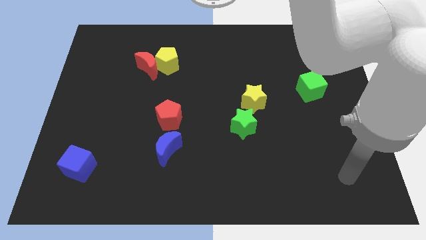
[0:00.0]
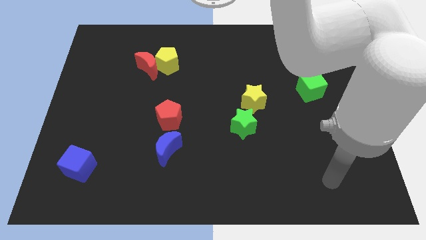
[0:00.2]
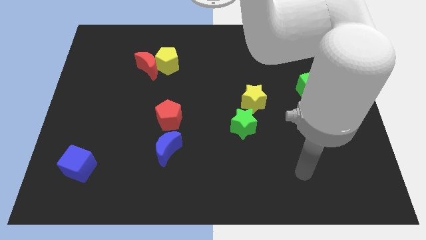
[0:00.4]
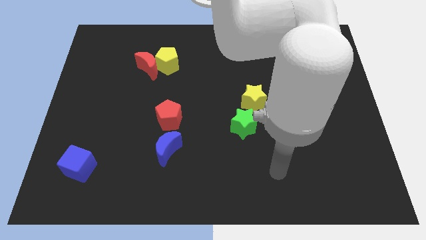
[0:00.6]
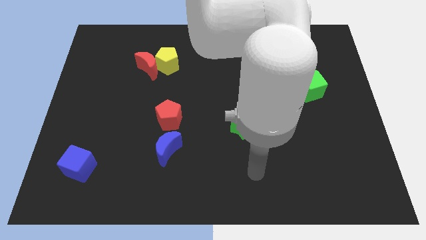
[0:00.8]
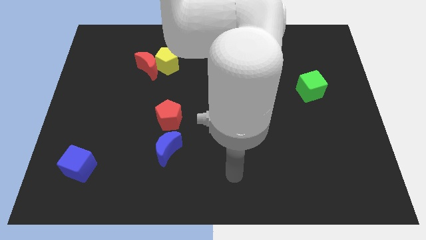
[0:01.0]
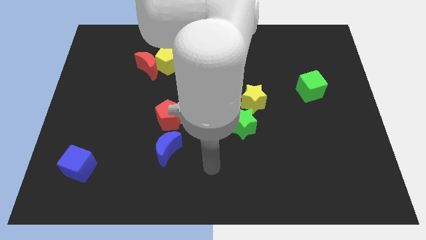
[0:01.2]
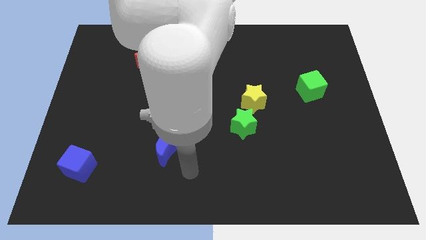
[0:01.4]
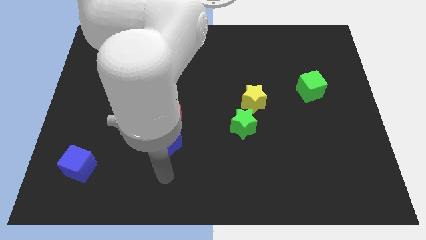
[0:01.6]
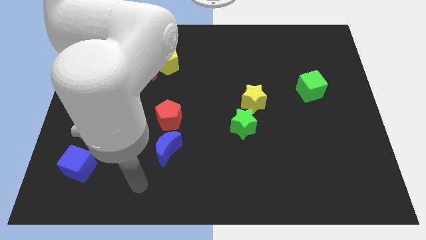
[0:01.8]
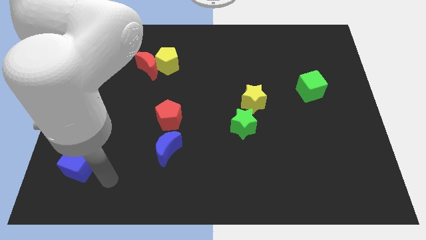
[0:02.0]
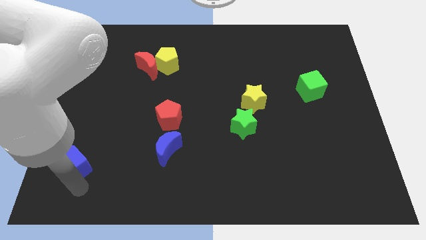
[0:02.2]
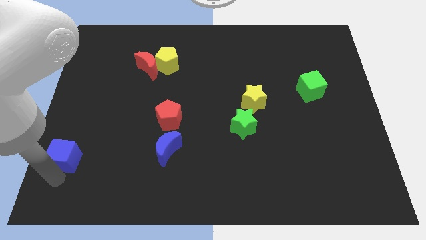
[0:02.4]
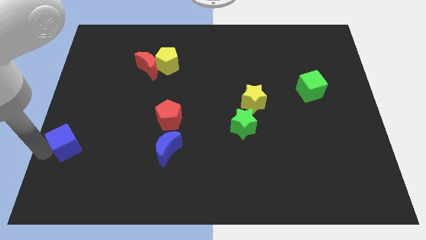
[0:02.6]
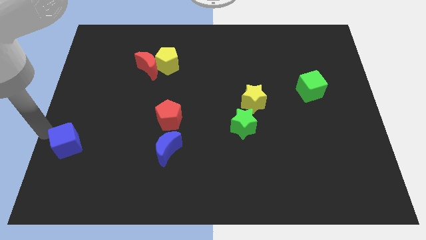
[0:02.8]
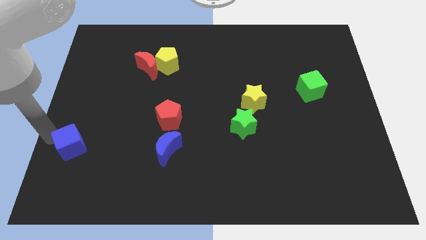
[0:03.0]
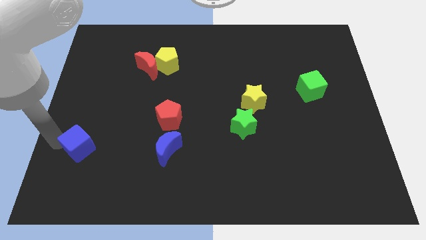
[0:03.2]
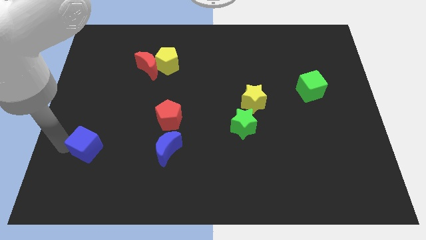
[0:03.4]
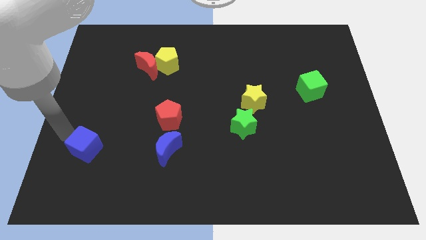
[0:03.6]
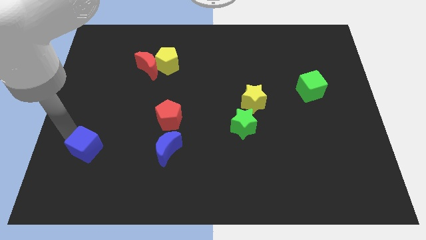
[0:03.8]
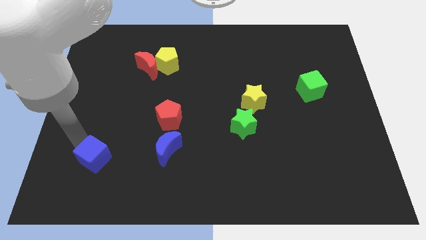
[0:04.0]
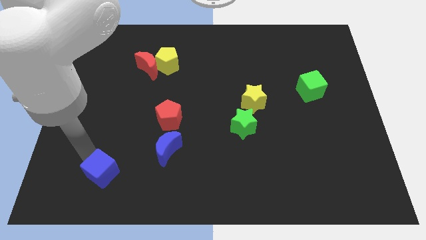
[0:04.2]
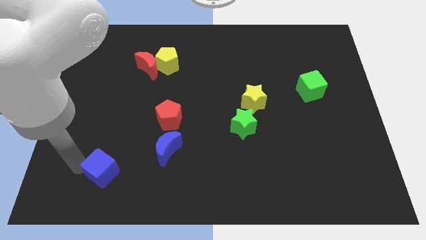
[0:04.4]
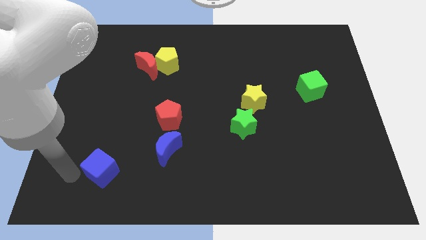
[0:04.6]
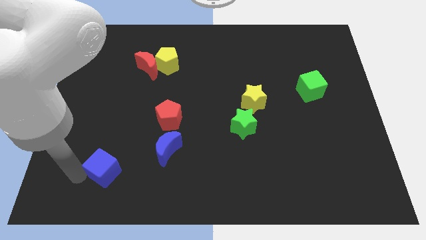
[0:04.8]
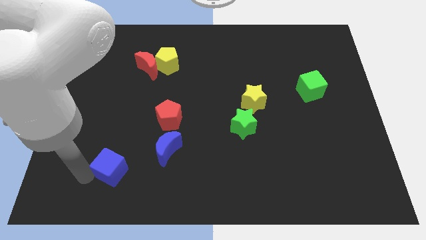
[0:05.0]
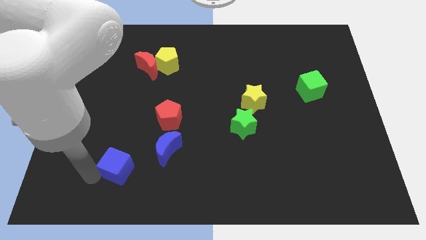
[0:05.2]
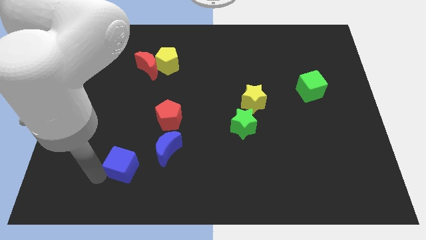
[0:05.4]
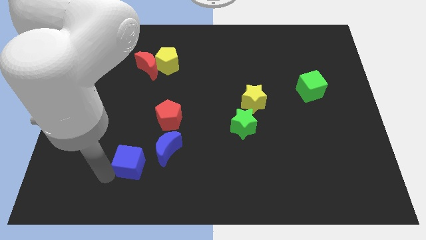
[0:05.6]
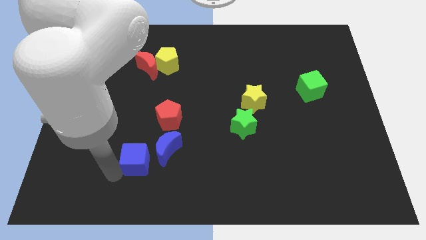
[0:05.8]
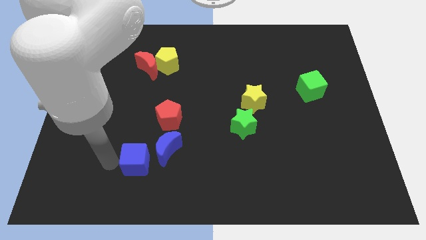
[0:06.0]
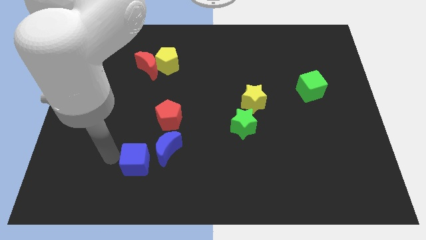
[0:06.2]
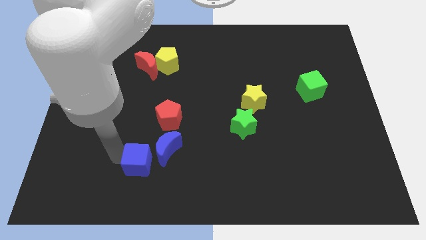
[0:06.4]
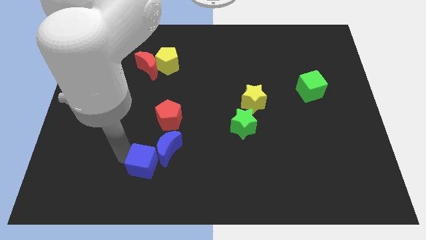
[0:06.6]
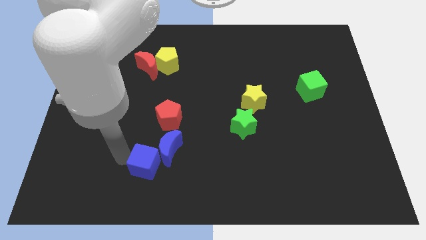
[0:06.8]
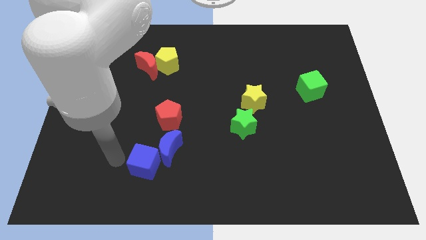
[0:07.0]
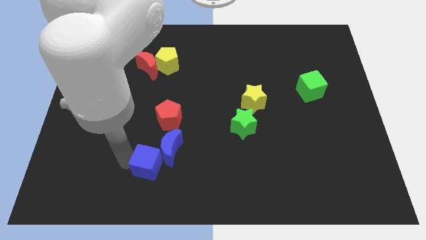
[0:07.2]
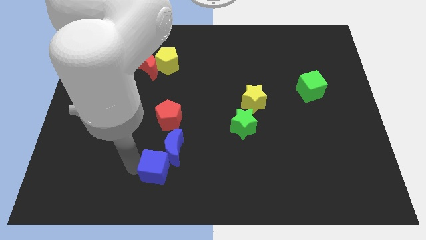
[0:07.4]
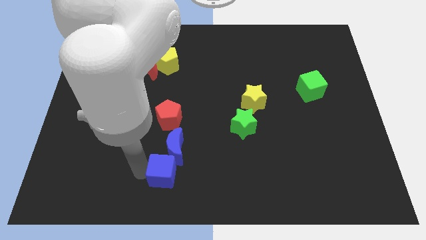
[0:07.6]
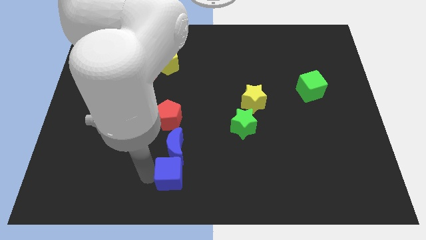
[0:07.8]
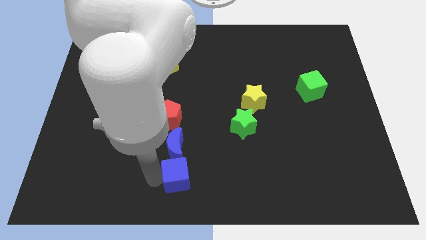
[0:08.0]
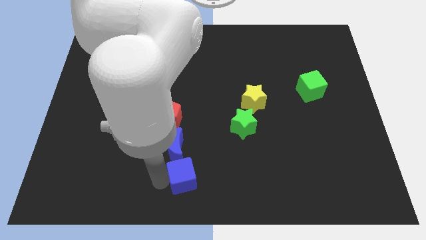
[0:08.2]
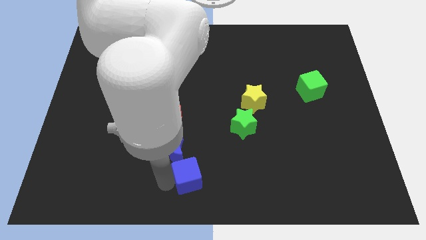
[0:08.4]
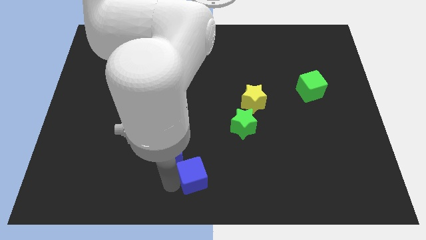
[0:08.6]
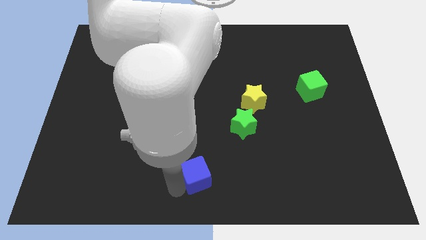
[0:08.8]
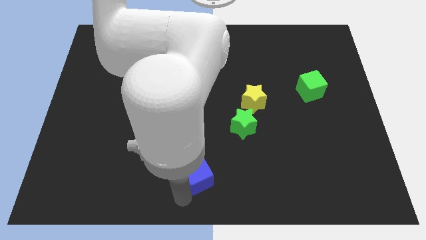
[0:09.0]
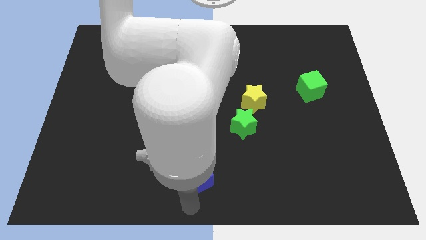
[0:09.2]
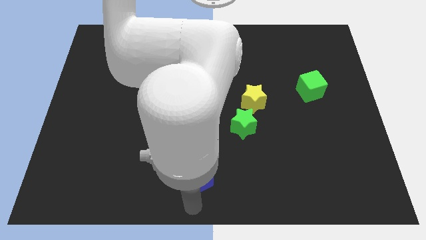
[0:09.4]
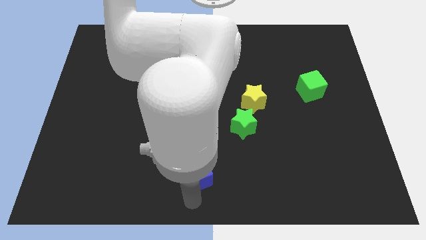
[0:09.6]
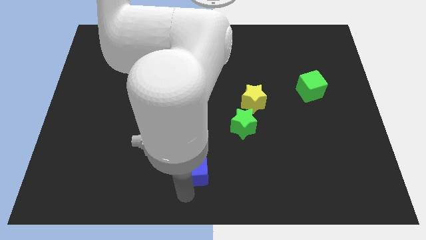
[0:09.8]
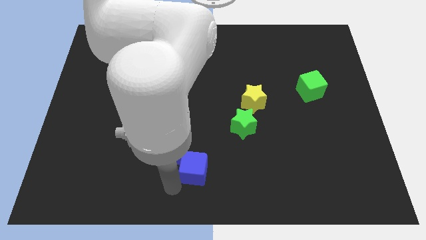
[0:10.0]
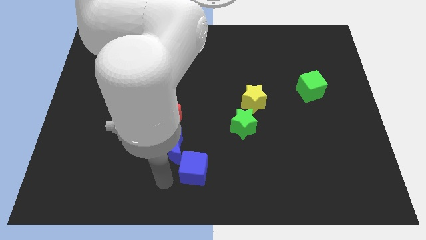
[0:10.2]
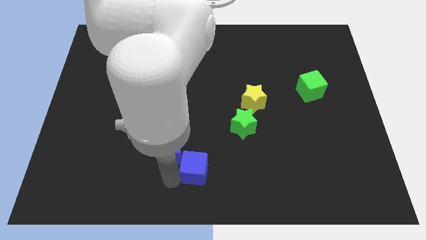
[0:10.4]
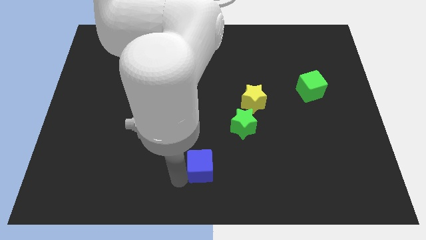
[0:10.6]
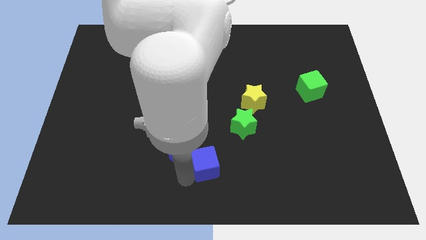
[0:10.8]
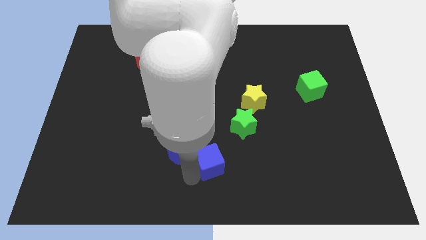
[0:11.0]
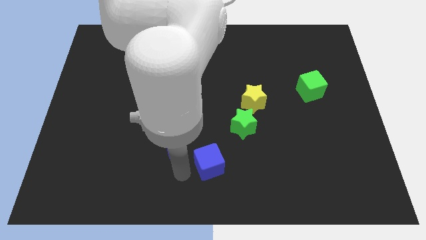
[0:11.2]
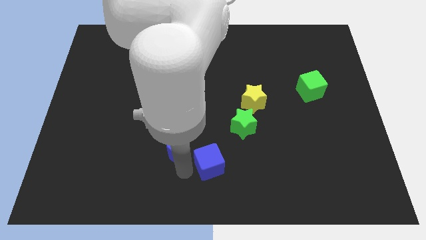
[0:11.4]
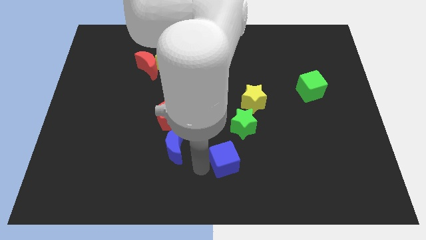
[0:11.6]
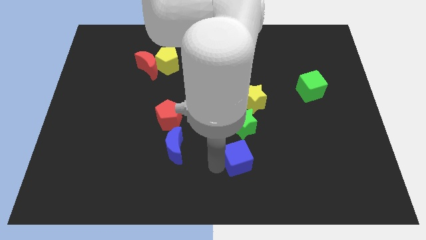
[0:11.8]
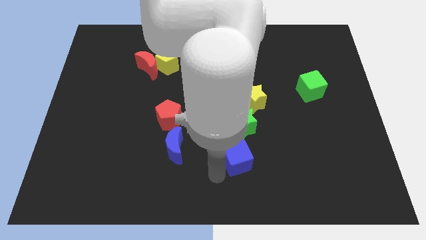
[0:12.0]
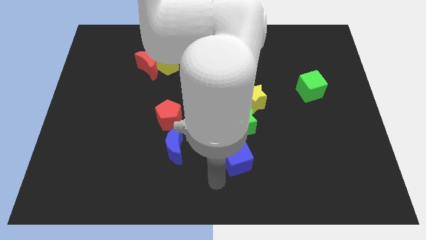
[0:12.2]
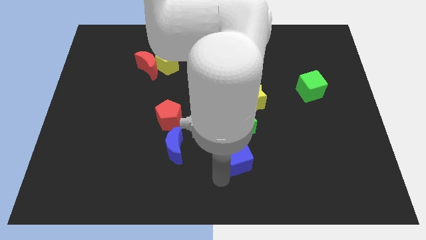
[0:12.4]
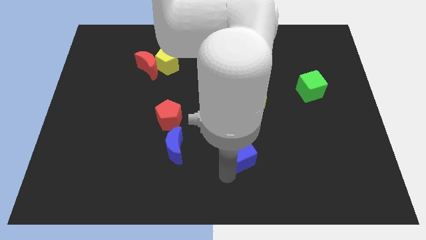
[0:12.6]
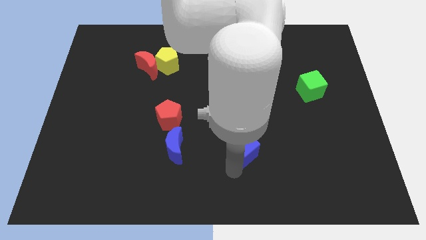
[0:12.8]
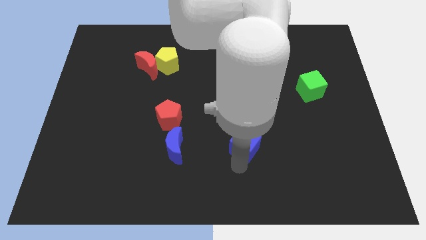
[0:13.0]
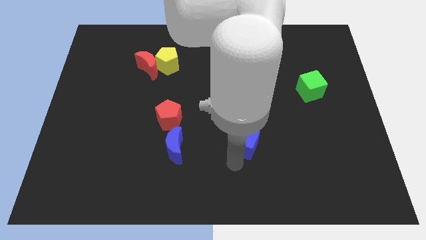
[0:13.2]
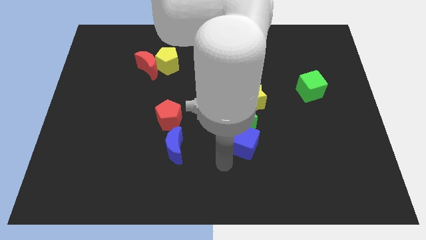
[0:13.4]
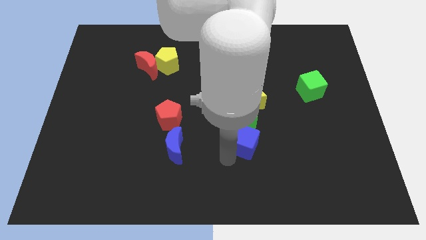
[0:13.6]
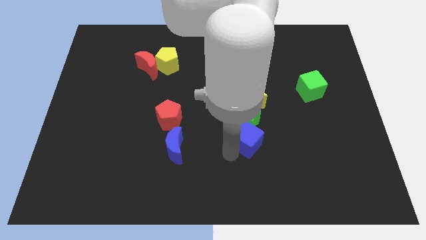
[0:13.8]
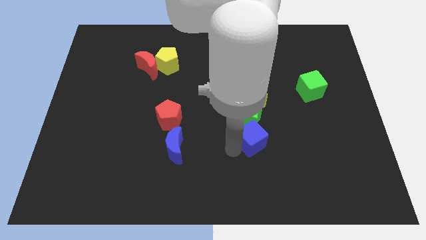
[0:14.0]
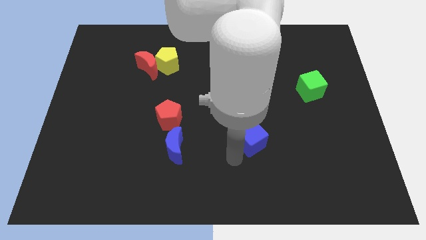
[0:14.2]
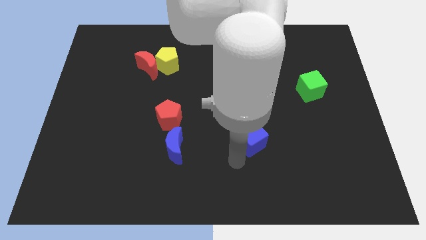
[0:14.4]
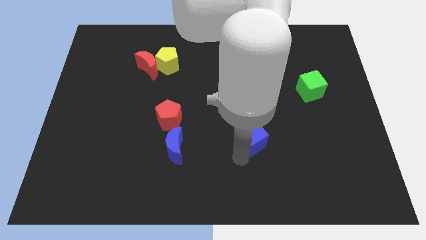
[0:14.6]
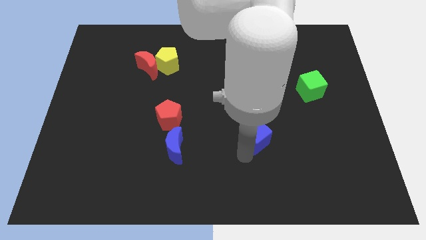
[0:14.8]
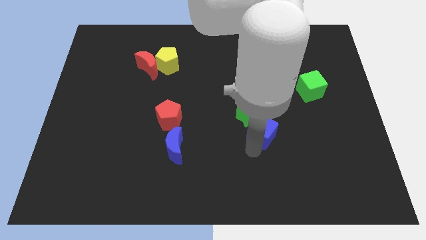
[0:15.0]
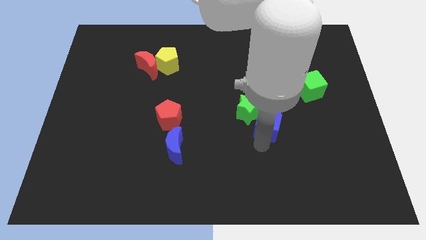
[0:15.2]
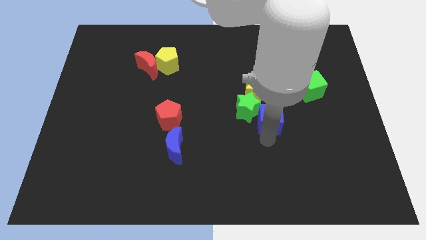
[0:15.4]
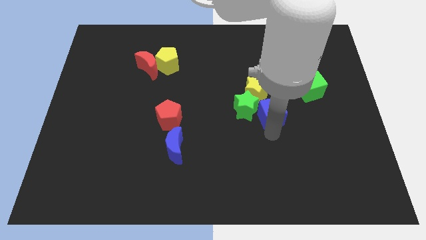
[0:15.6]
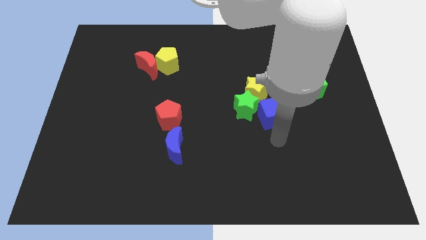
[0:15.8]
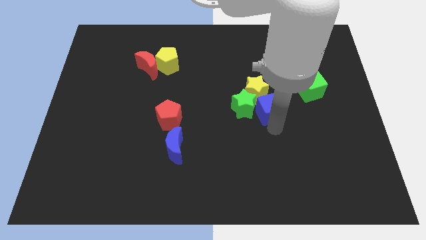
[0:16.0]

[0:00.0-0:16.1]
slide the blue cube diagonally up and to the right of the green star
